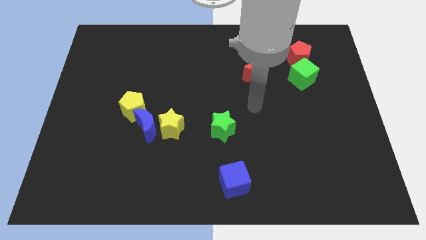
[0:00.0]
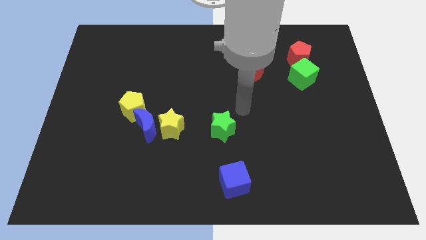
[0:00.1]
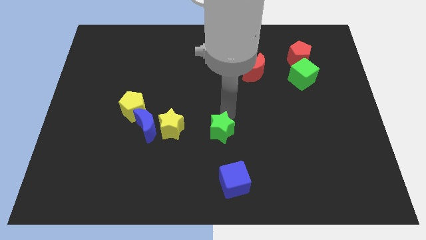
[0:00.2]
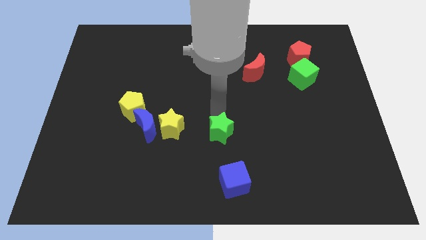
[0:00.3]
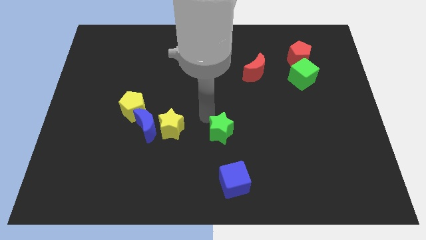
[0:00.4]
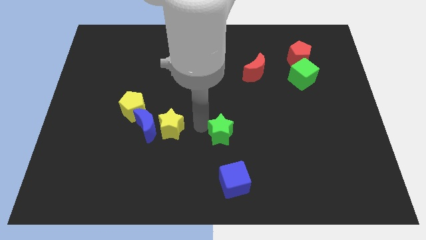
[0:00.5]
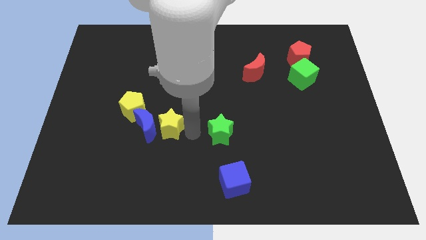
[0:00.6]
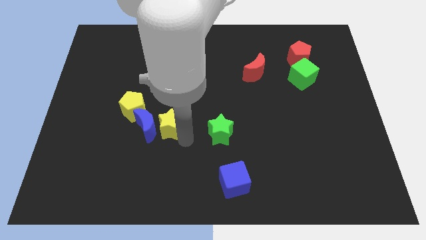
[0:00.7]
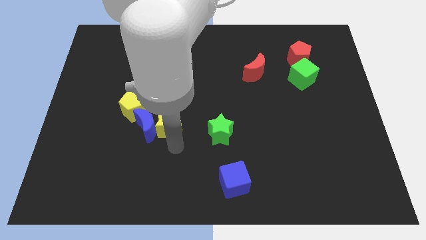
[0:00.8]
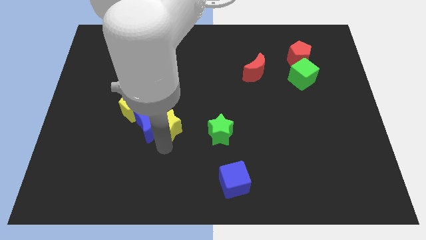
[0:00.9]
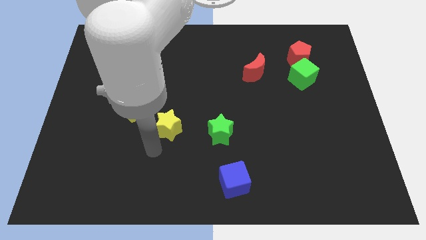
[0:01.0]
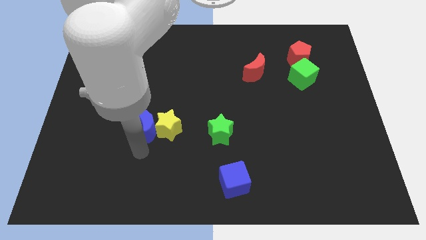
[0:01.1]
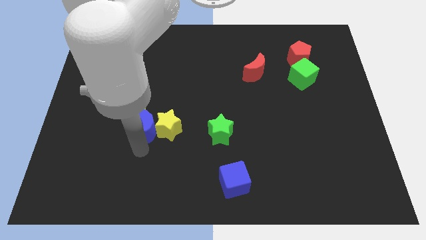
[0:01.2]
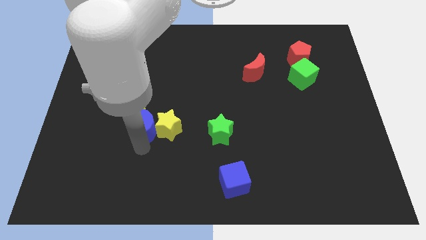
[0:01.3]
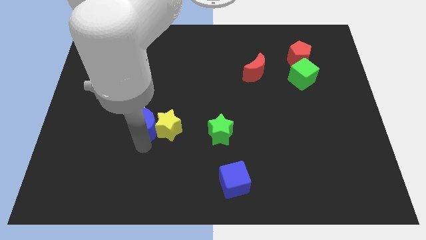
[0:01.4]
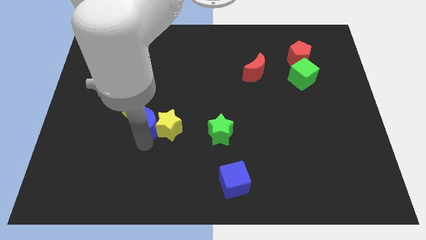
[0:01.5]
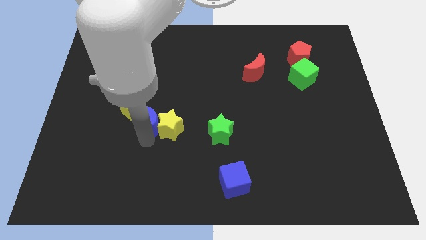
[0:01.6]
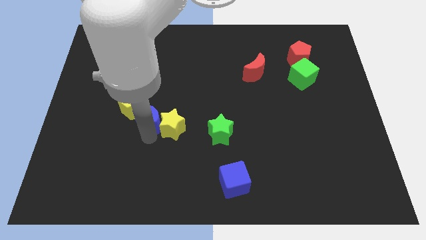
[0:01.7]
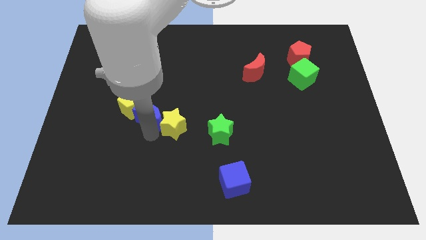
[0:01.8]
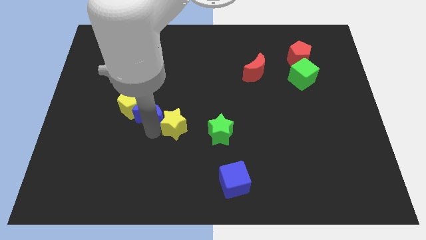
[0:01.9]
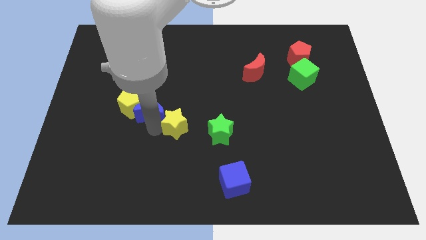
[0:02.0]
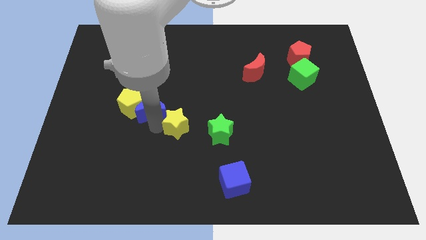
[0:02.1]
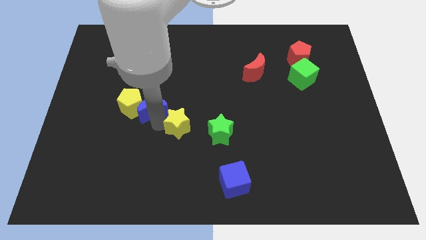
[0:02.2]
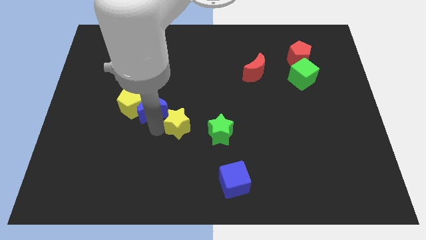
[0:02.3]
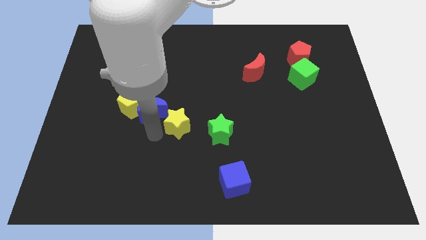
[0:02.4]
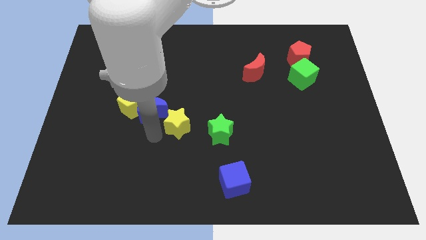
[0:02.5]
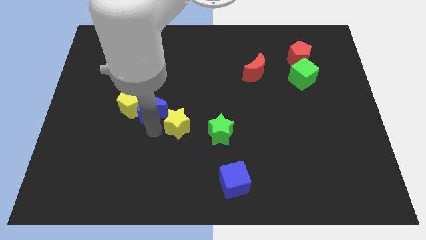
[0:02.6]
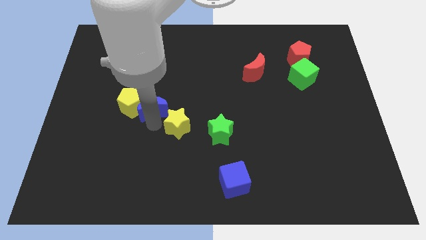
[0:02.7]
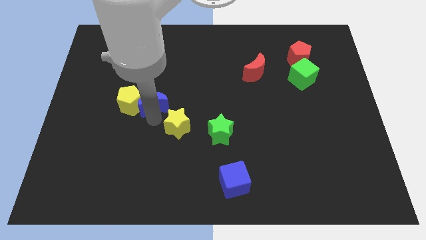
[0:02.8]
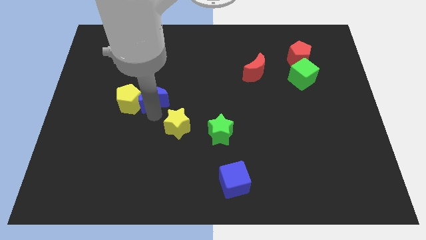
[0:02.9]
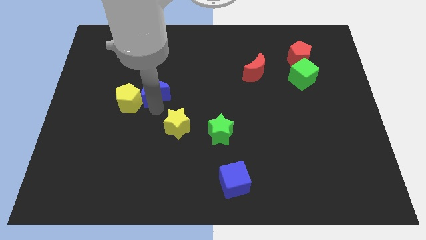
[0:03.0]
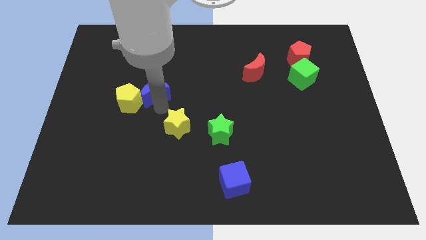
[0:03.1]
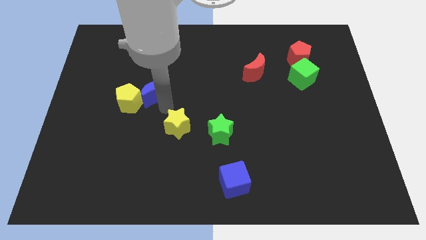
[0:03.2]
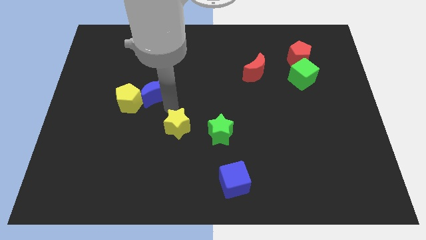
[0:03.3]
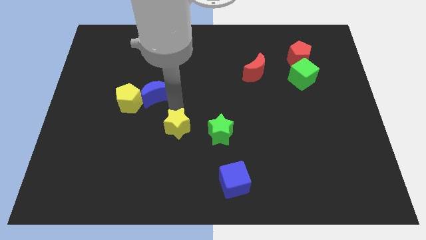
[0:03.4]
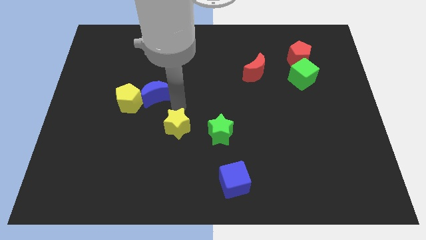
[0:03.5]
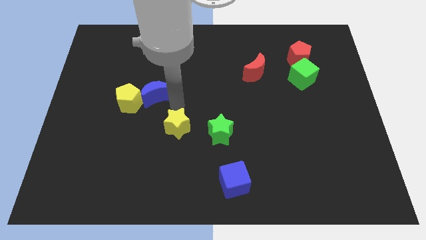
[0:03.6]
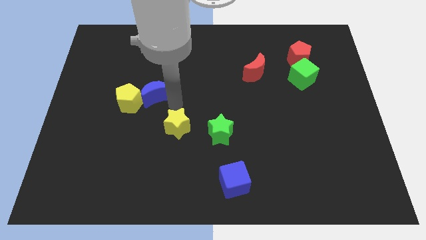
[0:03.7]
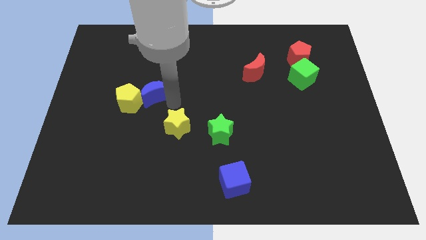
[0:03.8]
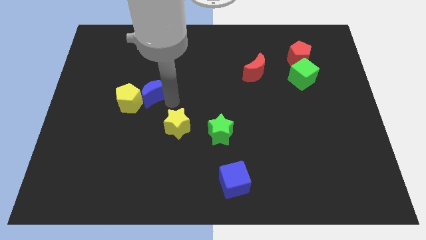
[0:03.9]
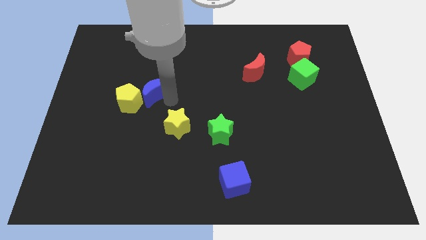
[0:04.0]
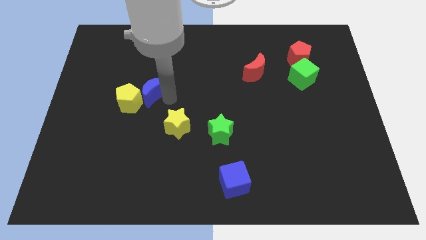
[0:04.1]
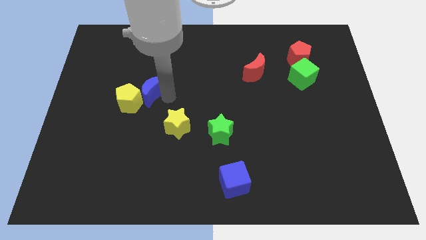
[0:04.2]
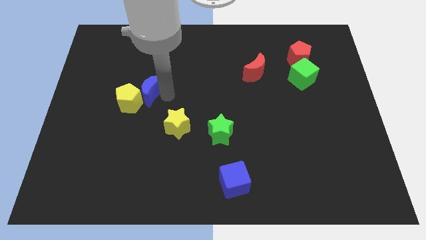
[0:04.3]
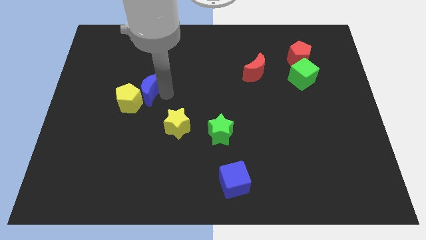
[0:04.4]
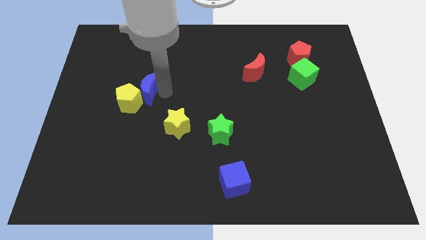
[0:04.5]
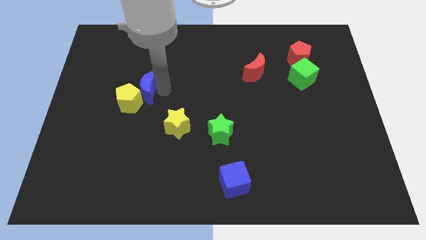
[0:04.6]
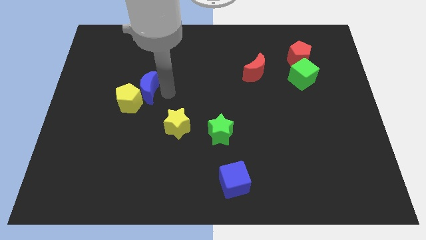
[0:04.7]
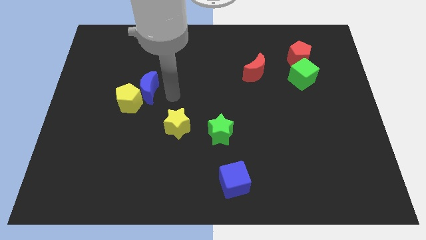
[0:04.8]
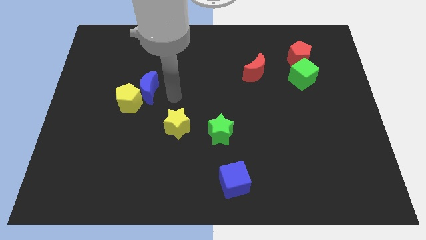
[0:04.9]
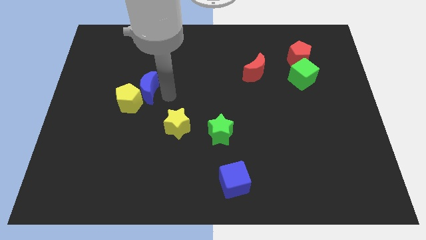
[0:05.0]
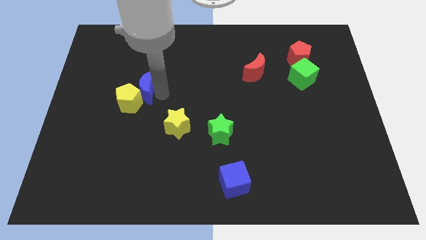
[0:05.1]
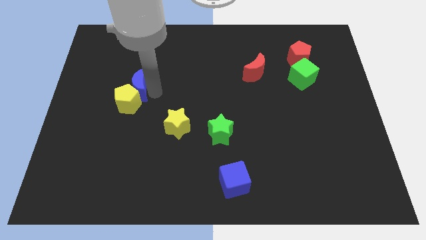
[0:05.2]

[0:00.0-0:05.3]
slightly slide the blue moon up and then to the left

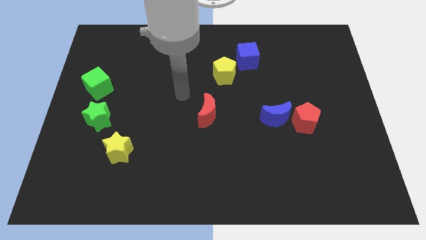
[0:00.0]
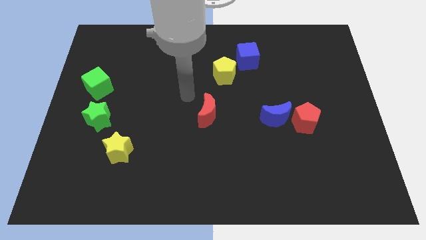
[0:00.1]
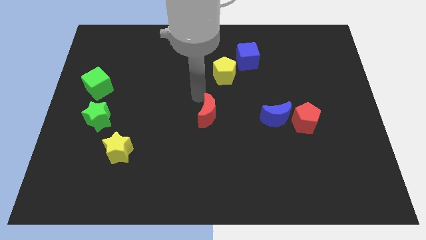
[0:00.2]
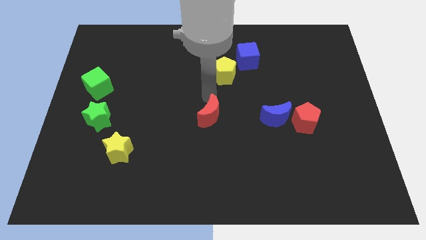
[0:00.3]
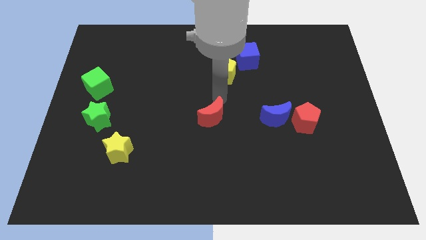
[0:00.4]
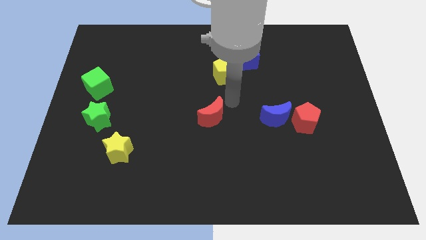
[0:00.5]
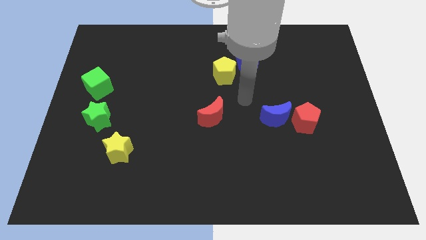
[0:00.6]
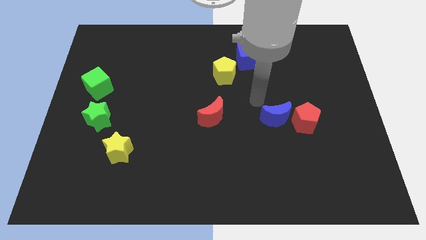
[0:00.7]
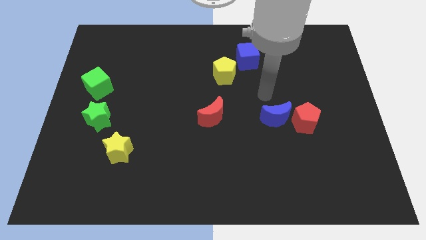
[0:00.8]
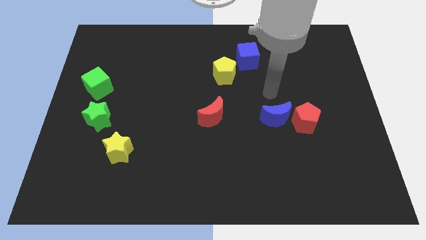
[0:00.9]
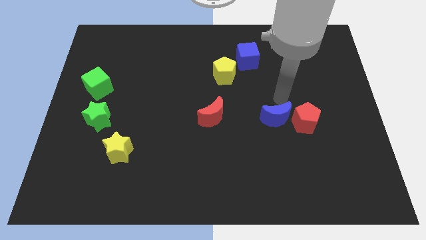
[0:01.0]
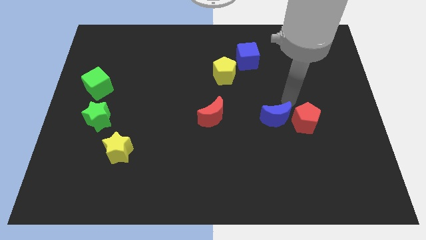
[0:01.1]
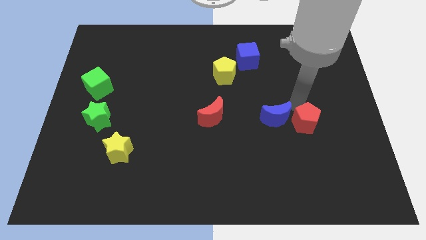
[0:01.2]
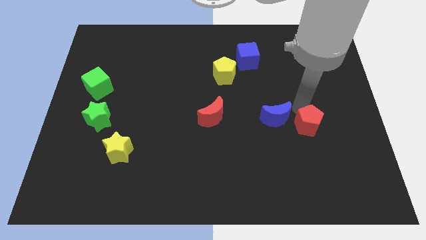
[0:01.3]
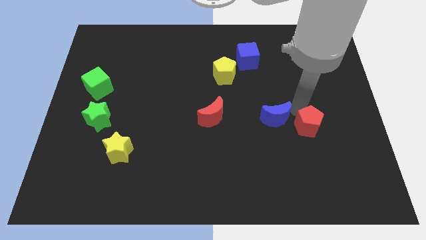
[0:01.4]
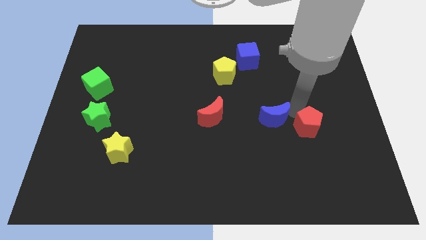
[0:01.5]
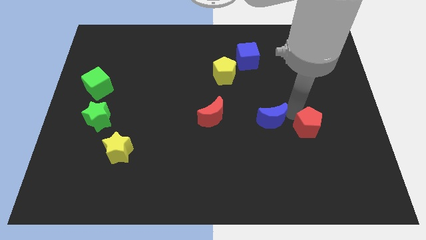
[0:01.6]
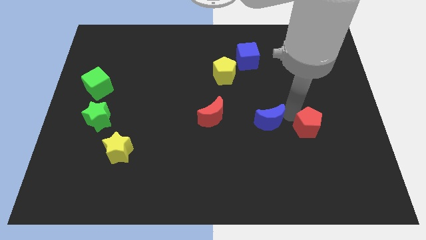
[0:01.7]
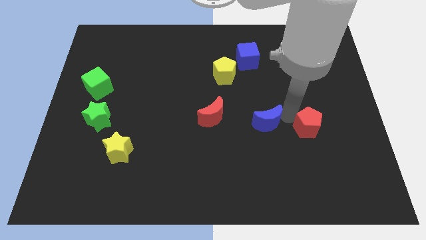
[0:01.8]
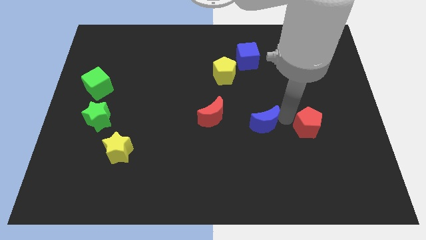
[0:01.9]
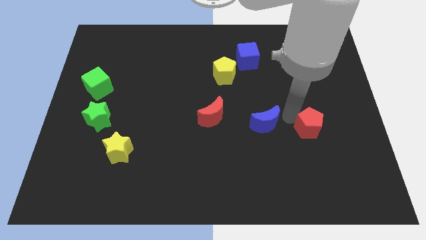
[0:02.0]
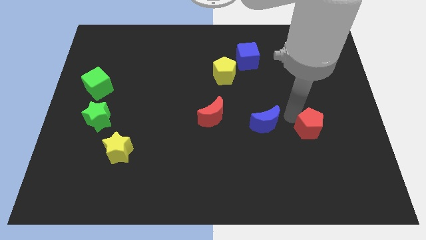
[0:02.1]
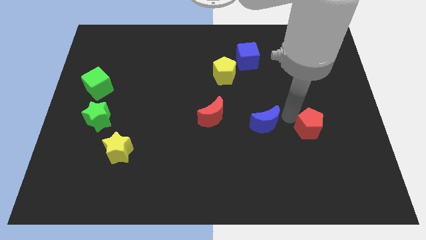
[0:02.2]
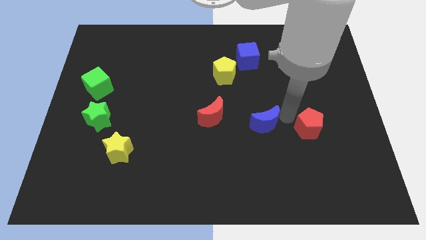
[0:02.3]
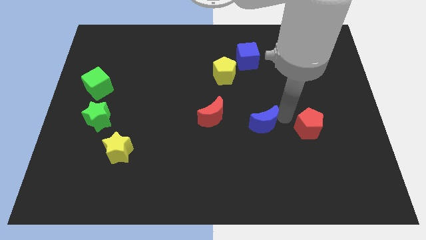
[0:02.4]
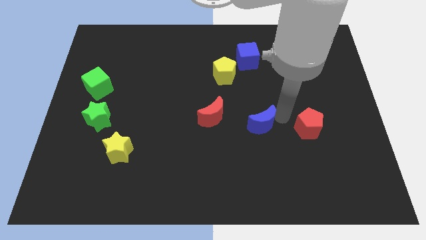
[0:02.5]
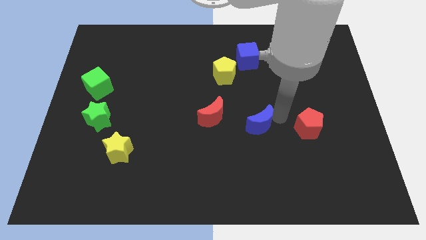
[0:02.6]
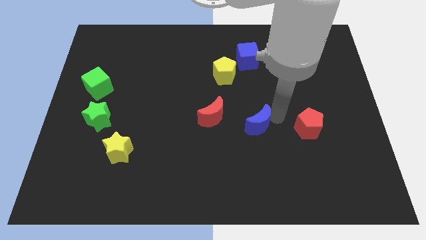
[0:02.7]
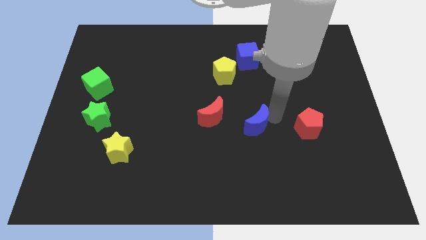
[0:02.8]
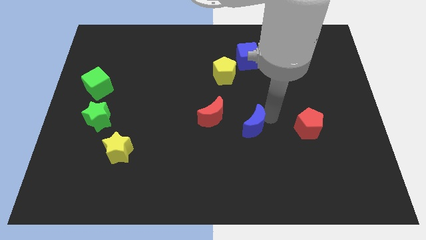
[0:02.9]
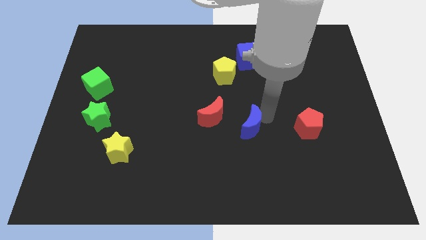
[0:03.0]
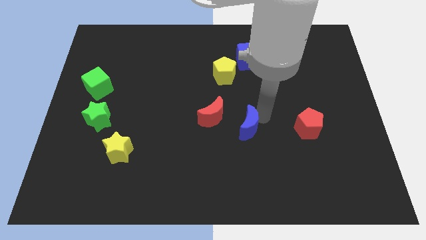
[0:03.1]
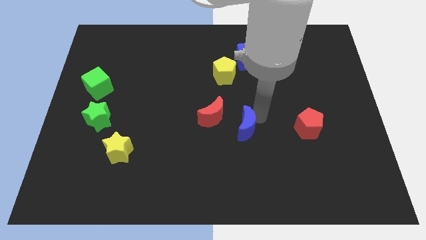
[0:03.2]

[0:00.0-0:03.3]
slightly slide the blue moon left

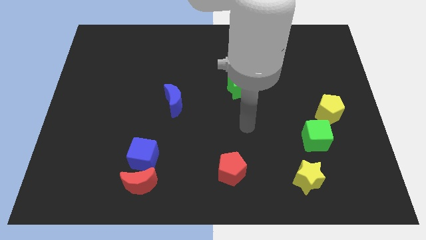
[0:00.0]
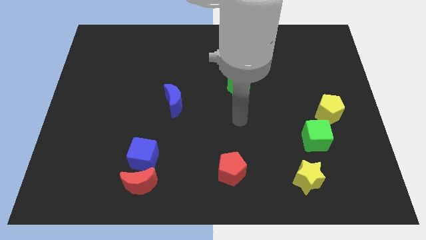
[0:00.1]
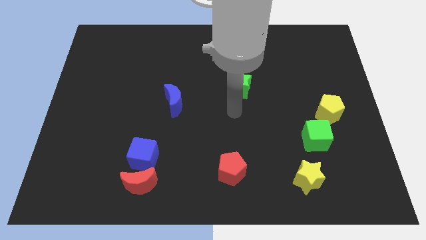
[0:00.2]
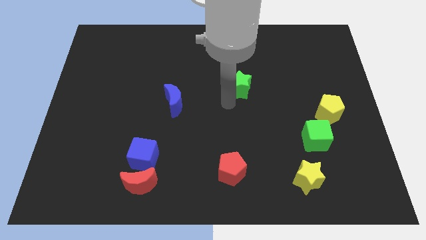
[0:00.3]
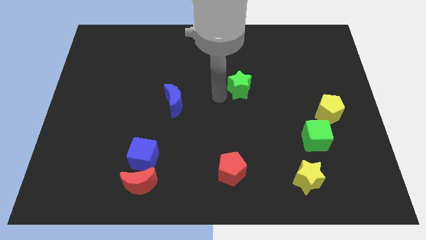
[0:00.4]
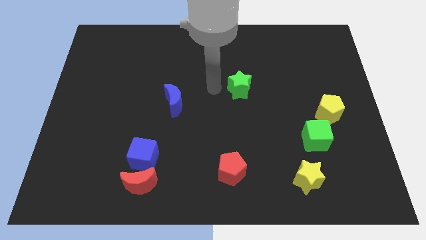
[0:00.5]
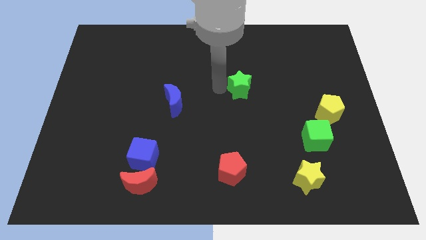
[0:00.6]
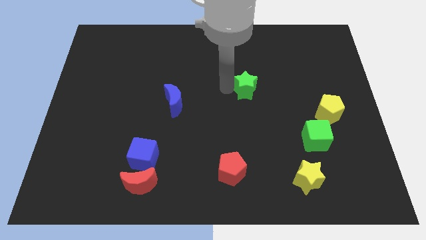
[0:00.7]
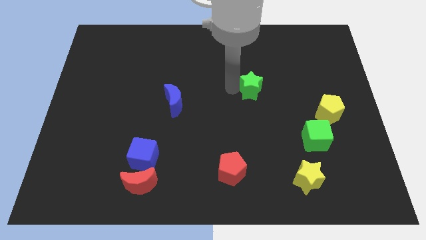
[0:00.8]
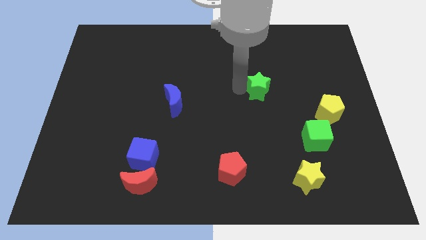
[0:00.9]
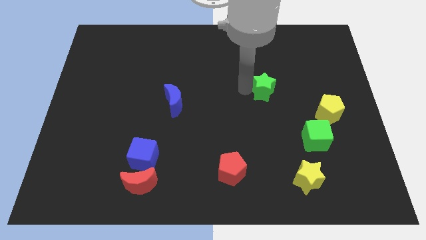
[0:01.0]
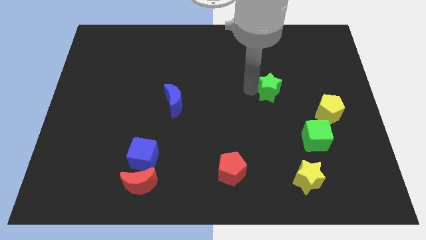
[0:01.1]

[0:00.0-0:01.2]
slightly move the green star right
